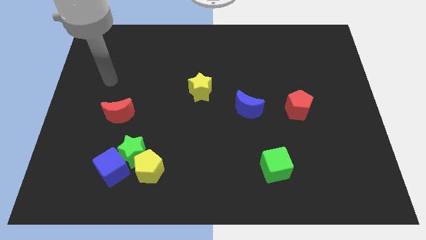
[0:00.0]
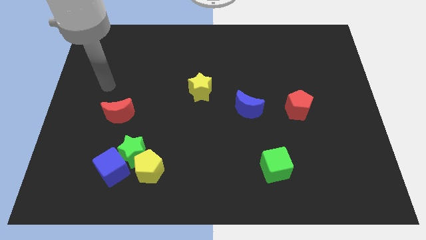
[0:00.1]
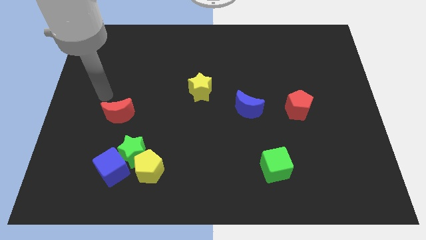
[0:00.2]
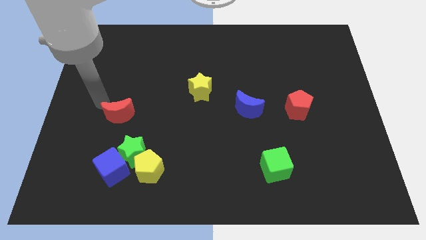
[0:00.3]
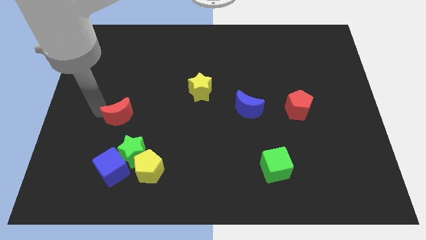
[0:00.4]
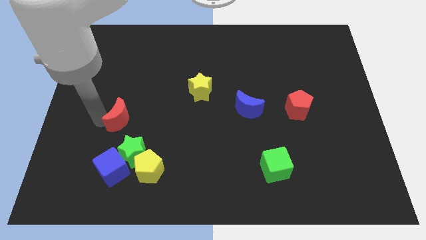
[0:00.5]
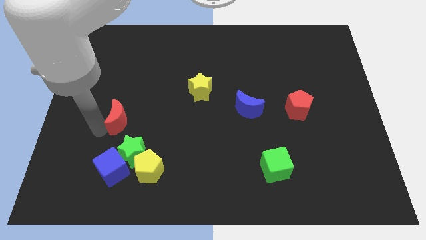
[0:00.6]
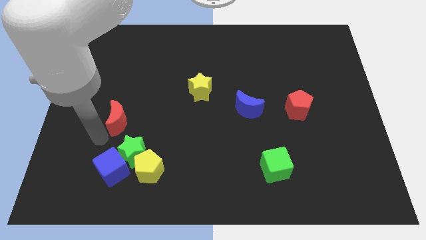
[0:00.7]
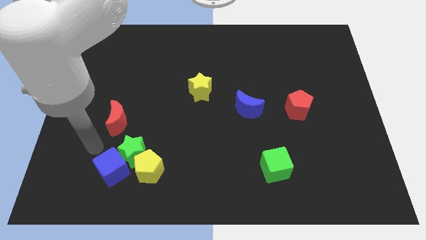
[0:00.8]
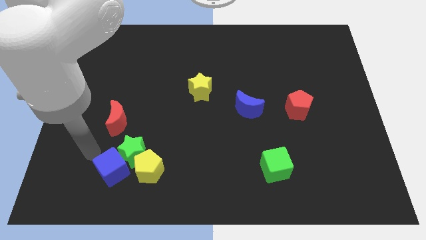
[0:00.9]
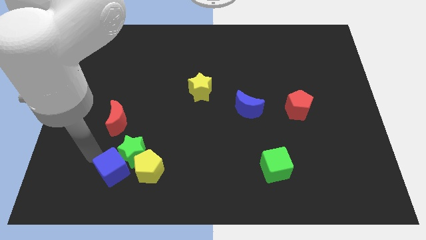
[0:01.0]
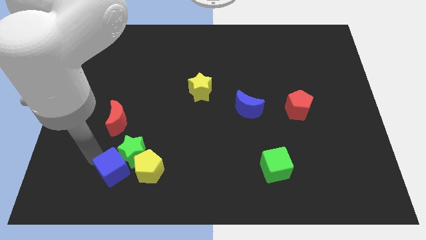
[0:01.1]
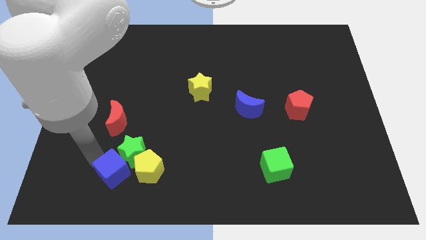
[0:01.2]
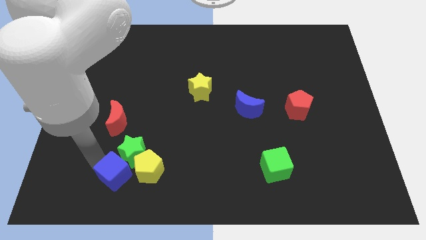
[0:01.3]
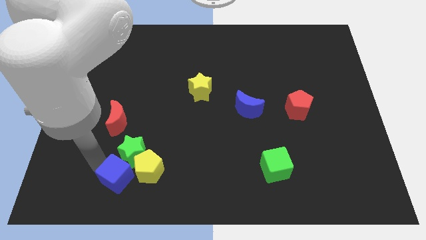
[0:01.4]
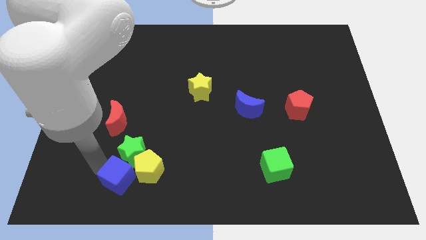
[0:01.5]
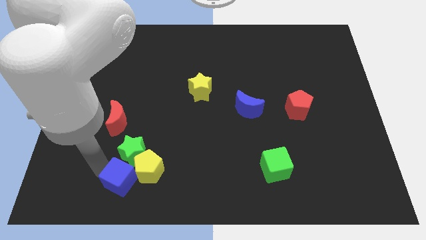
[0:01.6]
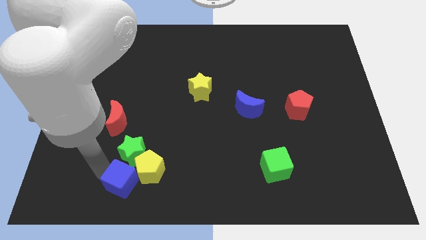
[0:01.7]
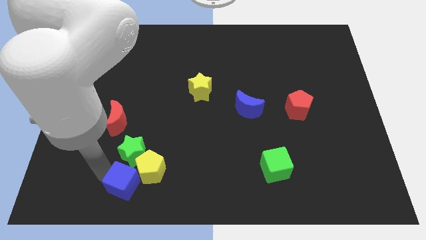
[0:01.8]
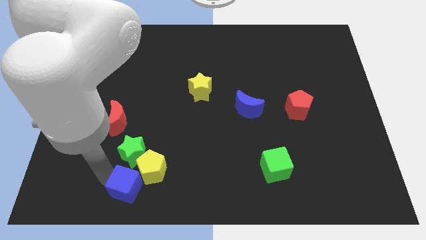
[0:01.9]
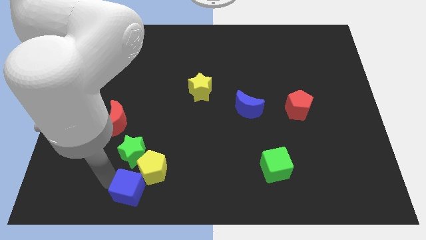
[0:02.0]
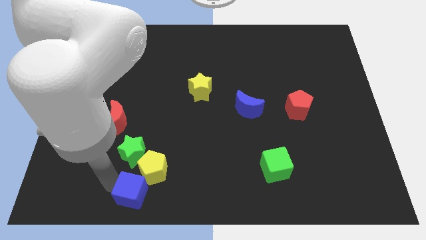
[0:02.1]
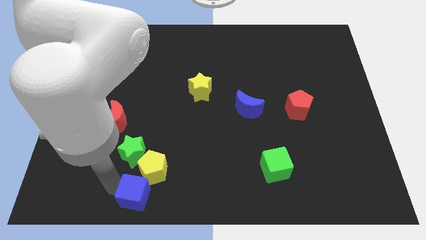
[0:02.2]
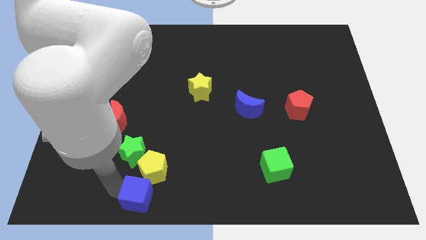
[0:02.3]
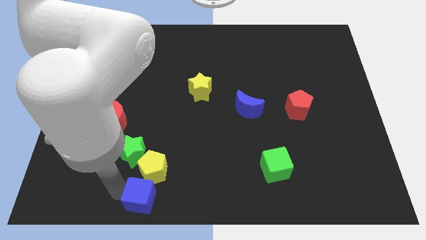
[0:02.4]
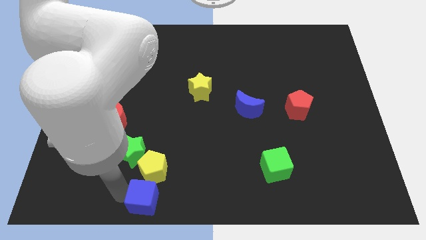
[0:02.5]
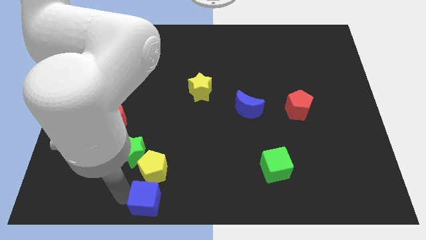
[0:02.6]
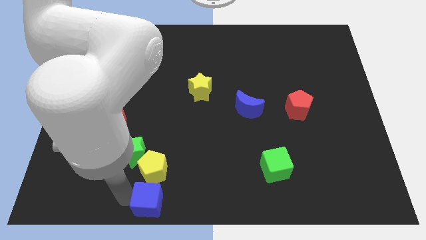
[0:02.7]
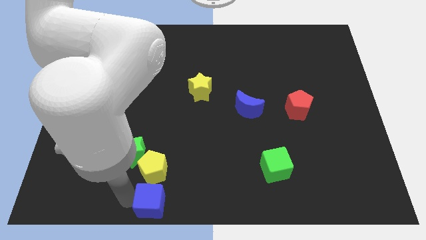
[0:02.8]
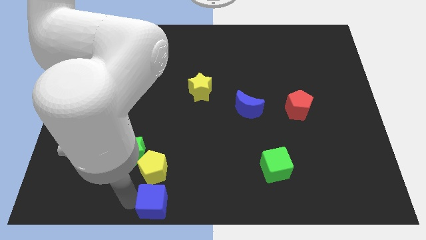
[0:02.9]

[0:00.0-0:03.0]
slightly move the blue cube to the right

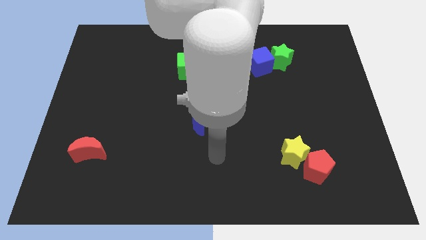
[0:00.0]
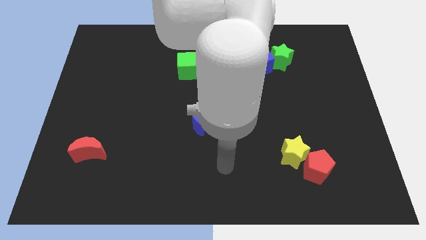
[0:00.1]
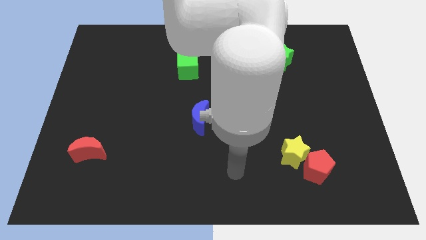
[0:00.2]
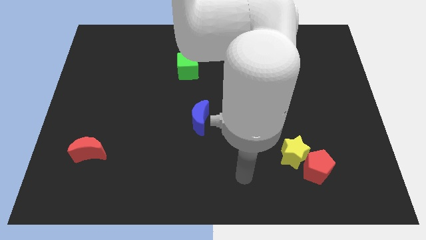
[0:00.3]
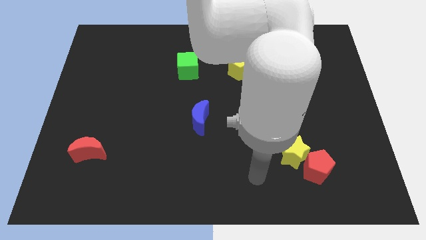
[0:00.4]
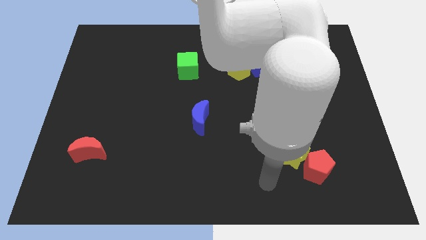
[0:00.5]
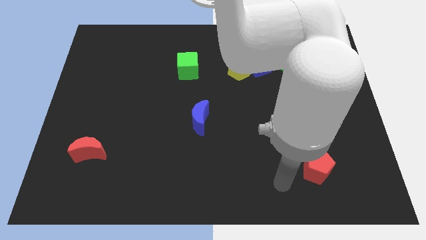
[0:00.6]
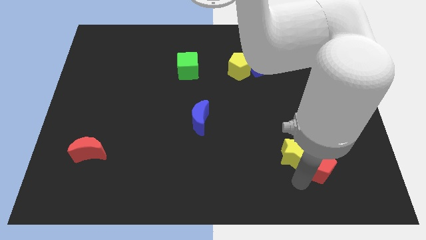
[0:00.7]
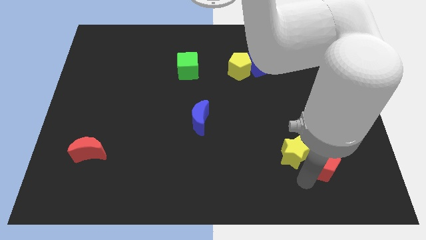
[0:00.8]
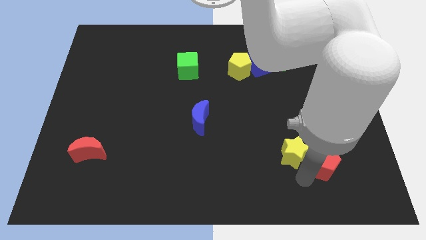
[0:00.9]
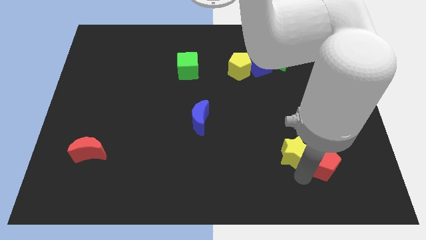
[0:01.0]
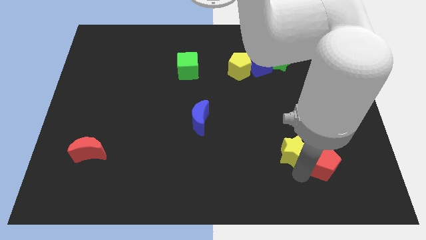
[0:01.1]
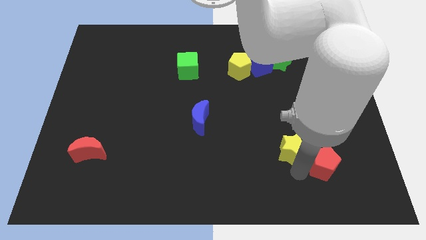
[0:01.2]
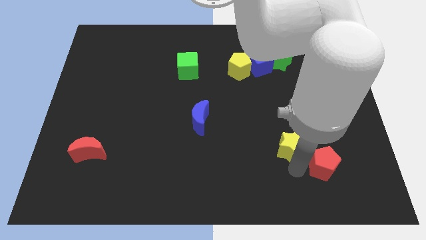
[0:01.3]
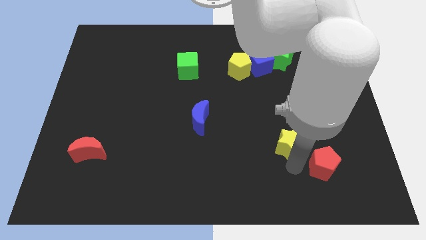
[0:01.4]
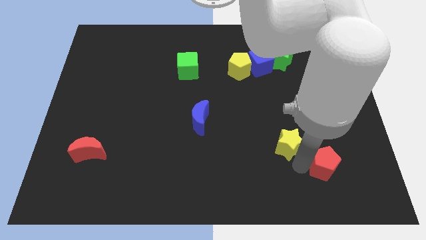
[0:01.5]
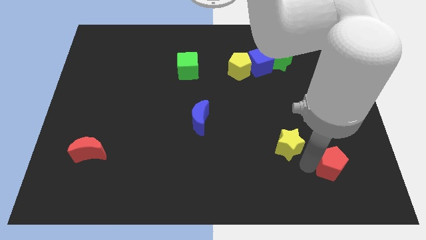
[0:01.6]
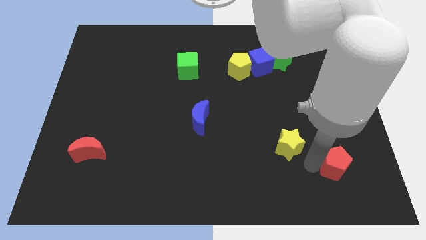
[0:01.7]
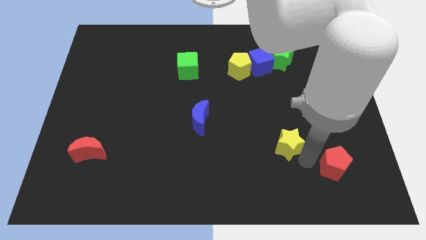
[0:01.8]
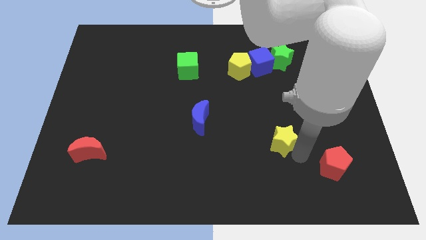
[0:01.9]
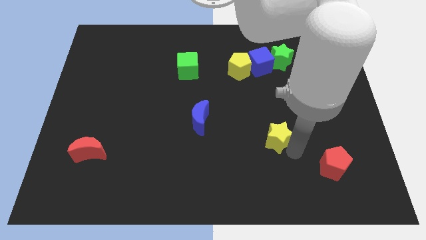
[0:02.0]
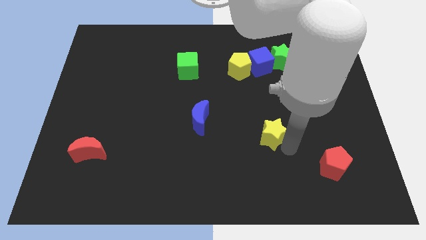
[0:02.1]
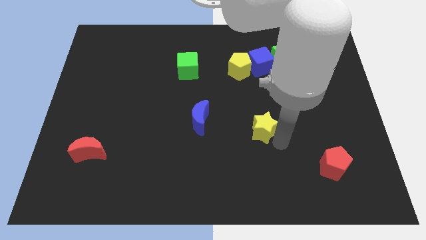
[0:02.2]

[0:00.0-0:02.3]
move the yellow star a bit upwards and left

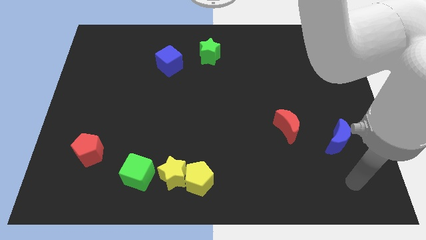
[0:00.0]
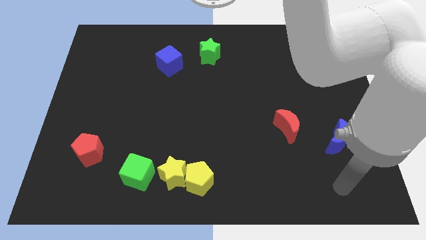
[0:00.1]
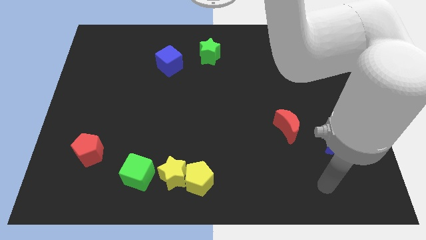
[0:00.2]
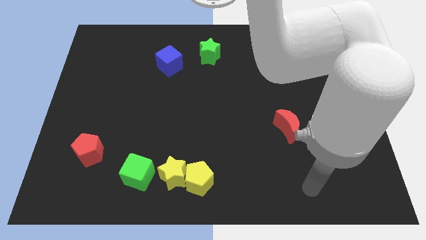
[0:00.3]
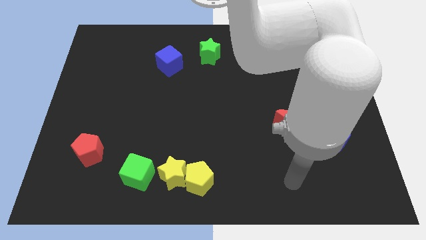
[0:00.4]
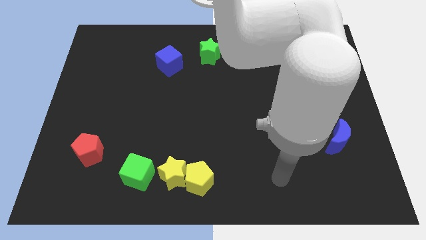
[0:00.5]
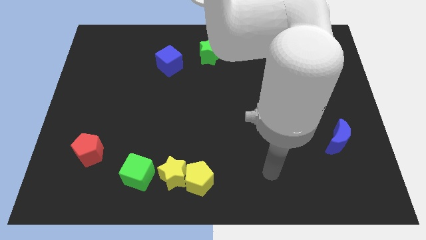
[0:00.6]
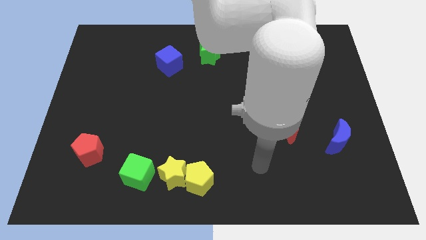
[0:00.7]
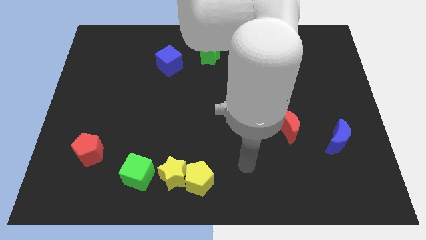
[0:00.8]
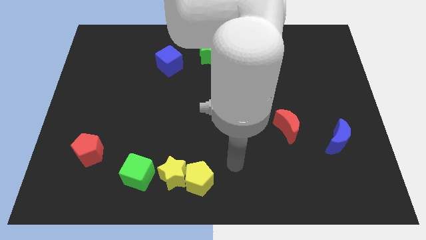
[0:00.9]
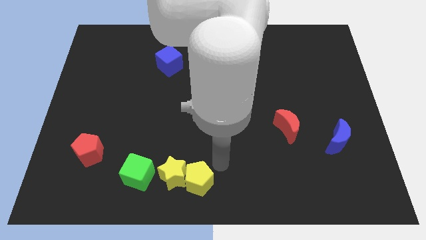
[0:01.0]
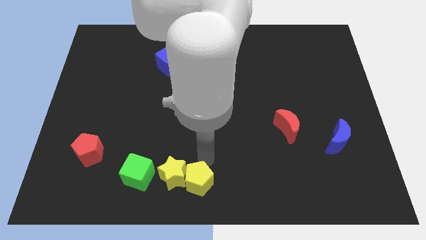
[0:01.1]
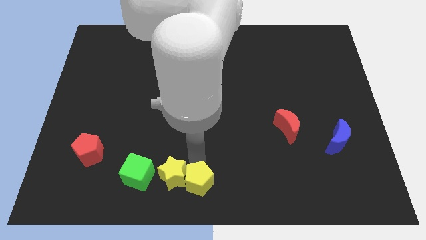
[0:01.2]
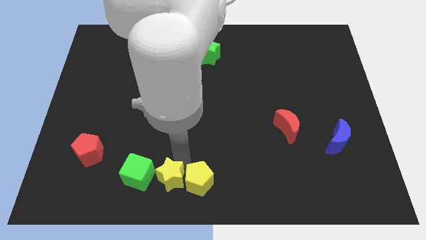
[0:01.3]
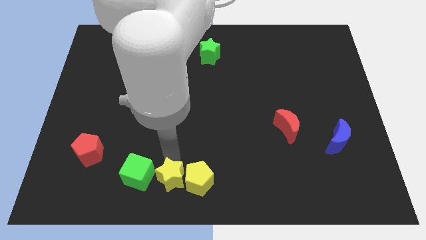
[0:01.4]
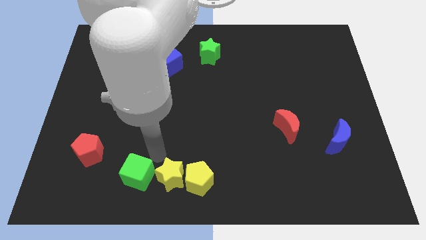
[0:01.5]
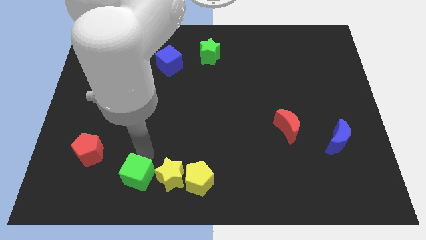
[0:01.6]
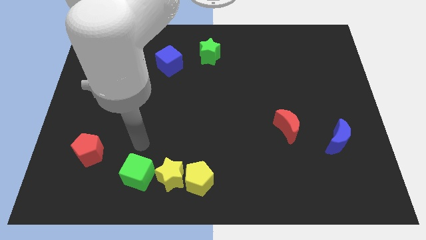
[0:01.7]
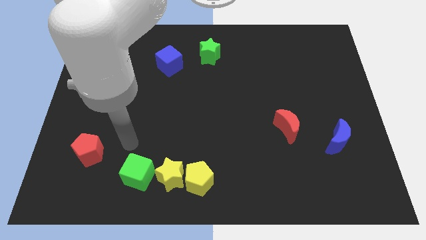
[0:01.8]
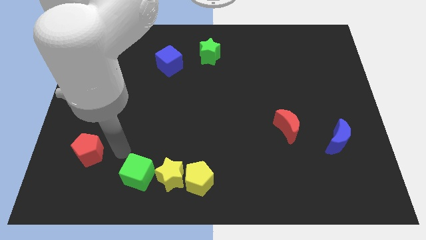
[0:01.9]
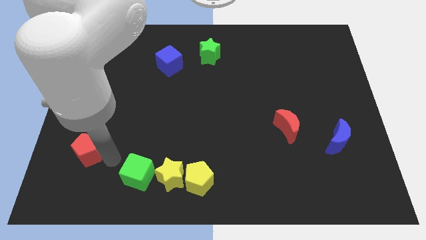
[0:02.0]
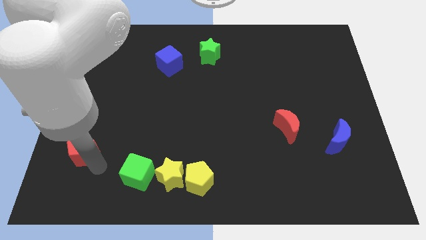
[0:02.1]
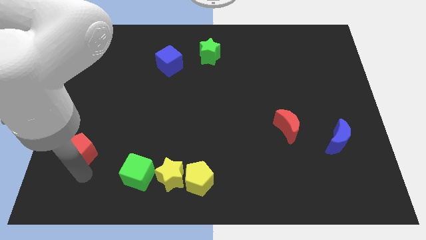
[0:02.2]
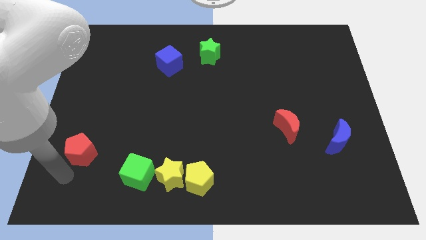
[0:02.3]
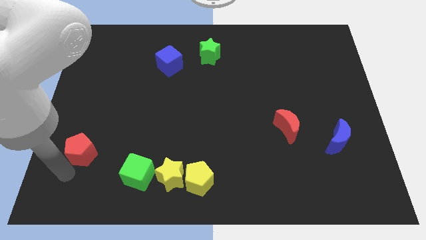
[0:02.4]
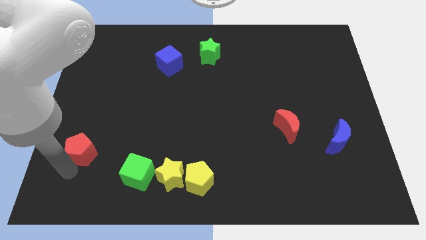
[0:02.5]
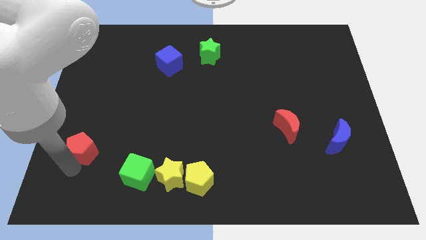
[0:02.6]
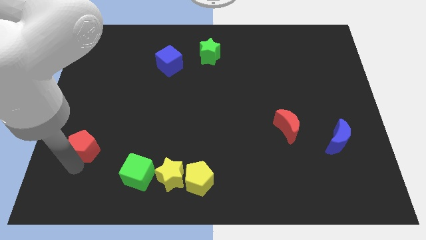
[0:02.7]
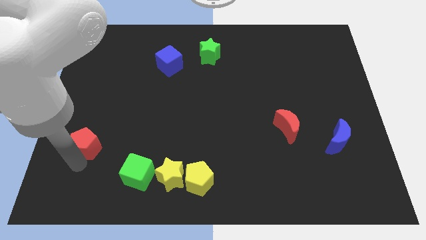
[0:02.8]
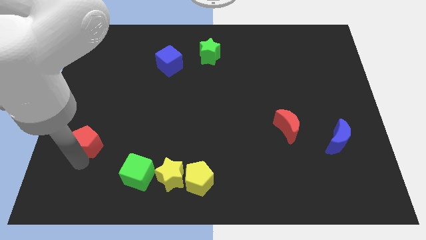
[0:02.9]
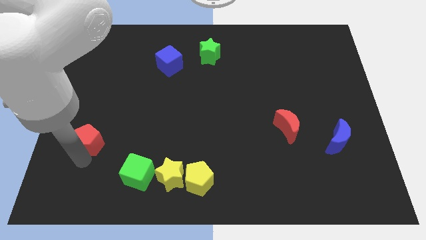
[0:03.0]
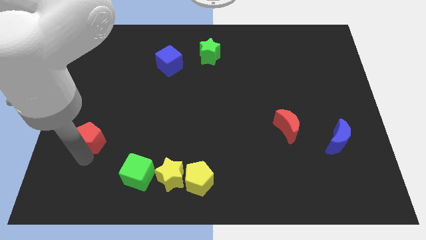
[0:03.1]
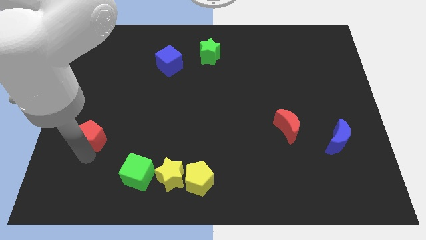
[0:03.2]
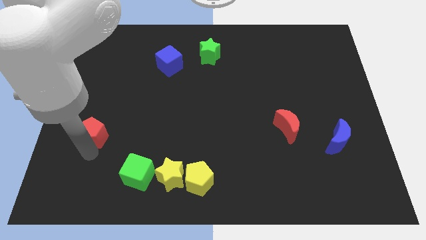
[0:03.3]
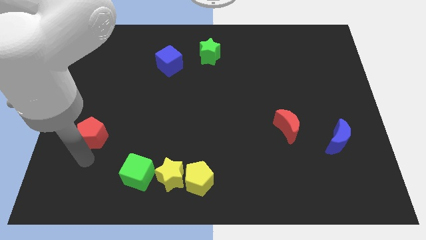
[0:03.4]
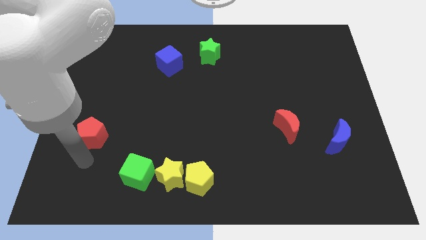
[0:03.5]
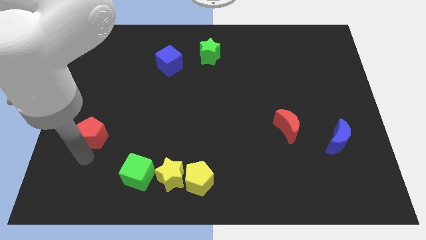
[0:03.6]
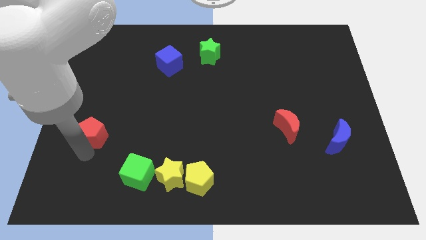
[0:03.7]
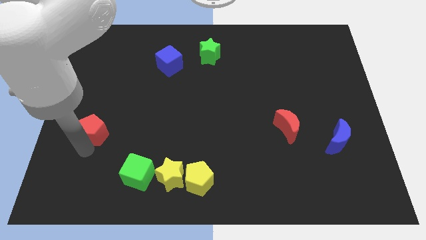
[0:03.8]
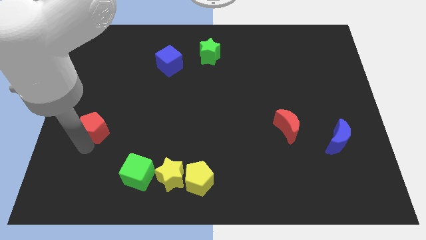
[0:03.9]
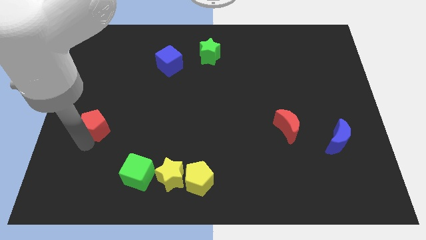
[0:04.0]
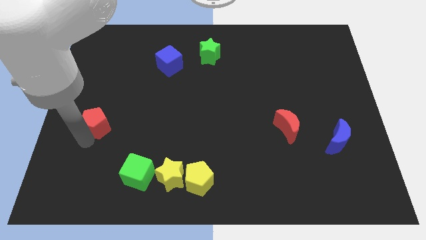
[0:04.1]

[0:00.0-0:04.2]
push the red pentagon a little up
